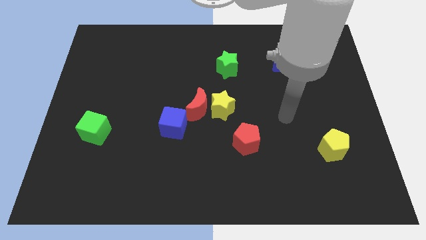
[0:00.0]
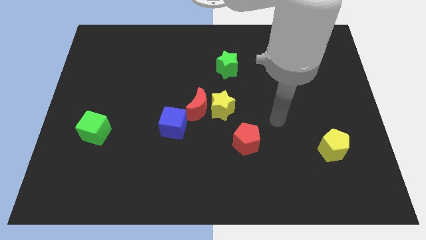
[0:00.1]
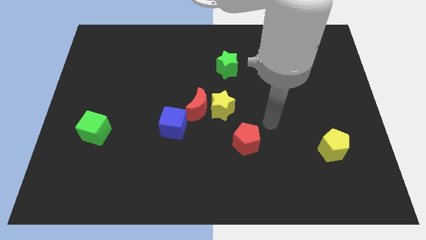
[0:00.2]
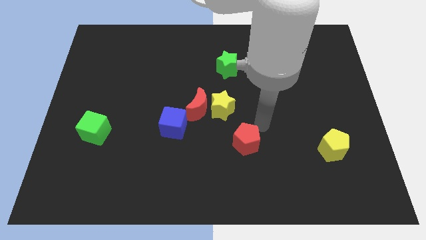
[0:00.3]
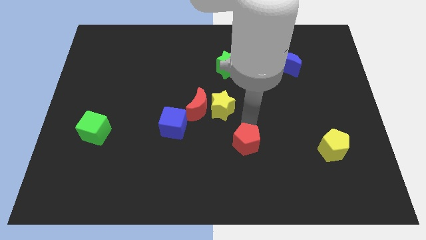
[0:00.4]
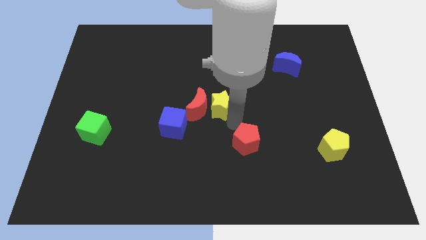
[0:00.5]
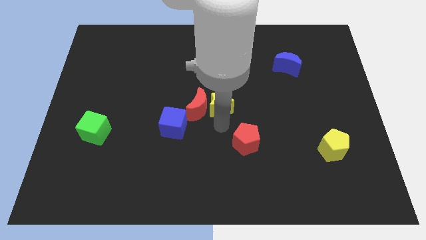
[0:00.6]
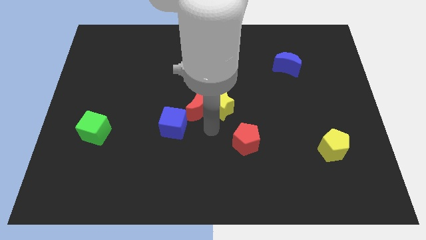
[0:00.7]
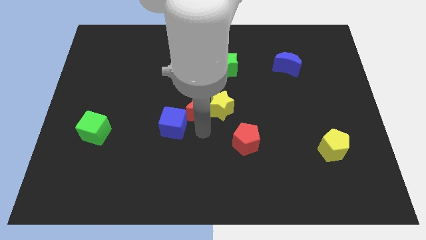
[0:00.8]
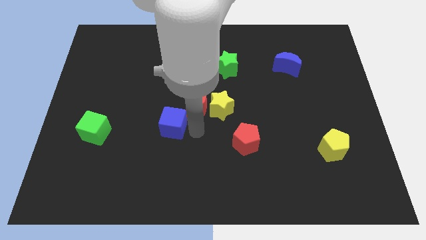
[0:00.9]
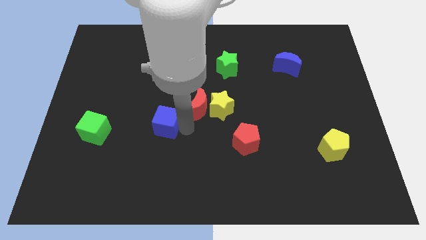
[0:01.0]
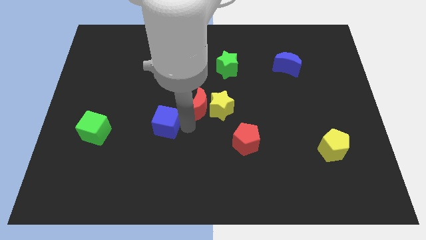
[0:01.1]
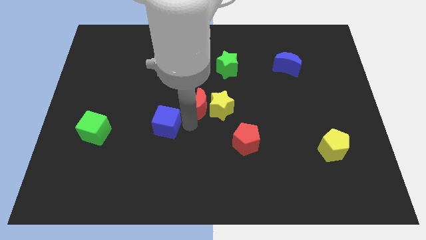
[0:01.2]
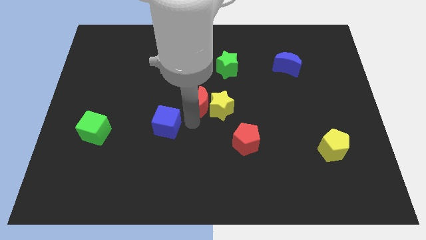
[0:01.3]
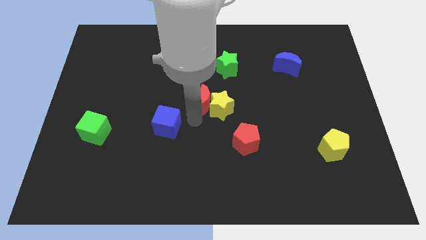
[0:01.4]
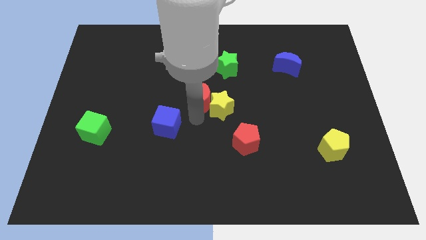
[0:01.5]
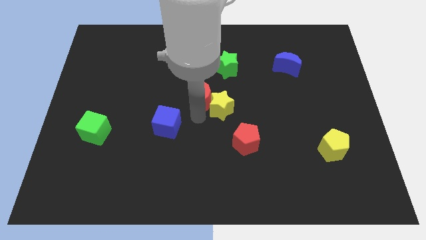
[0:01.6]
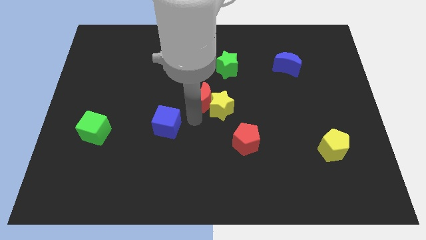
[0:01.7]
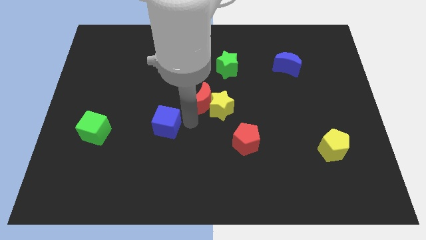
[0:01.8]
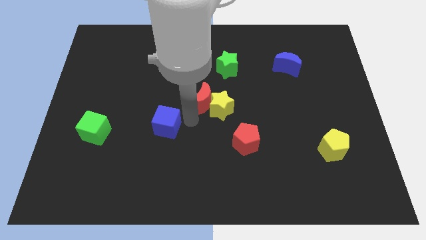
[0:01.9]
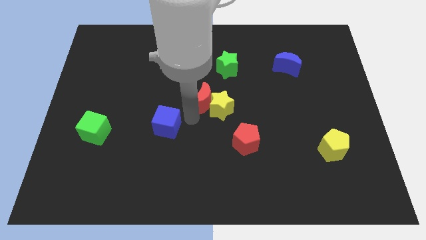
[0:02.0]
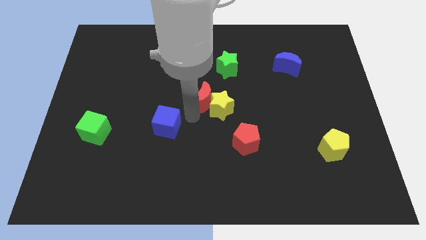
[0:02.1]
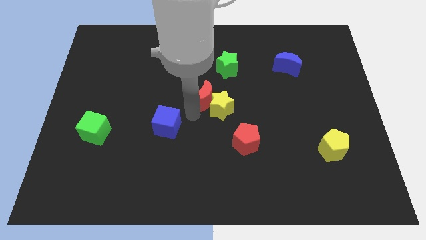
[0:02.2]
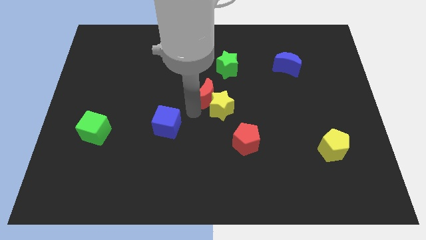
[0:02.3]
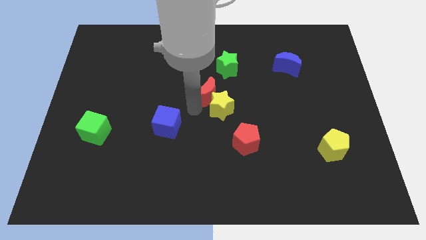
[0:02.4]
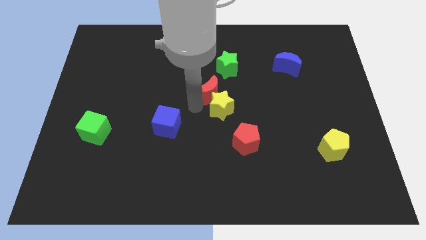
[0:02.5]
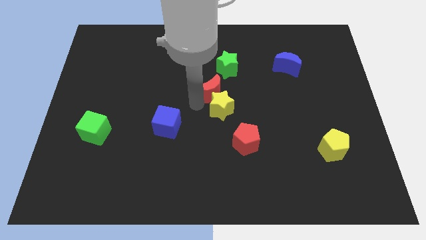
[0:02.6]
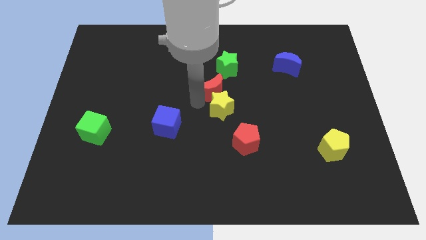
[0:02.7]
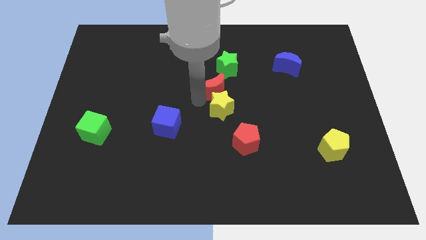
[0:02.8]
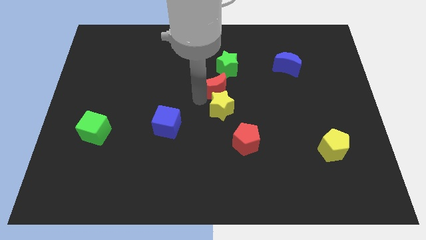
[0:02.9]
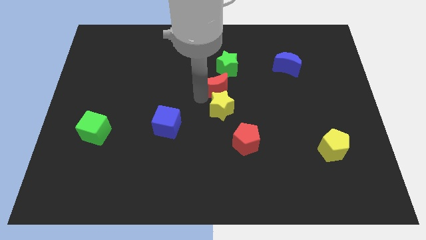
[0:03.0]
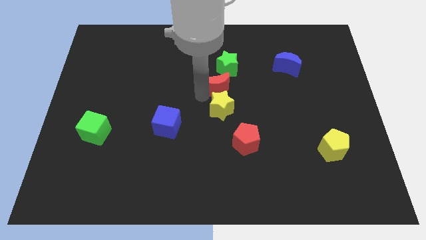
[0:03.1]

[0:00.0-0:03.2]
separate the red moon from the yellow star and blue cube

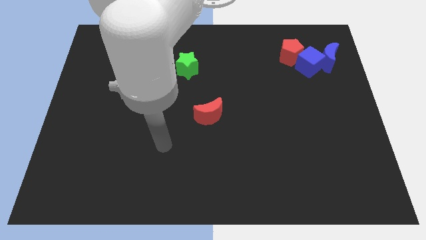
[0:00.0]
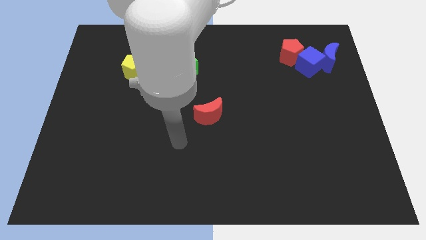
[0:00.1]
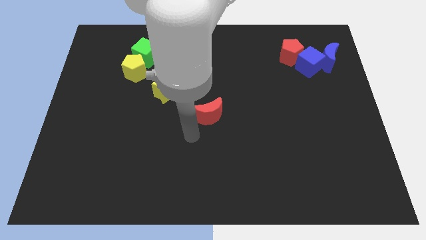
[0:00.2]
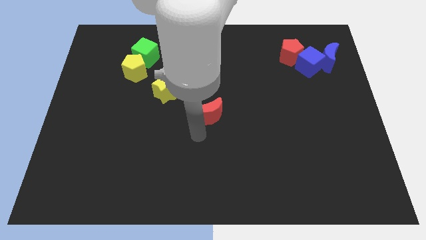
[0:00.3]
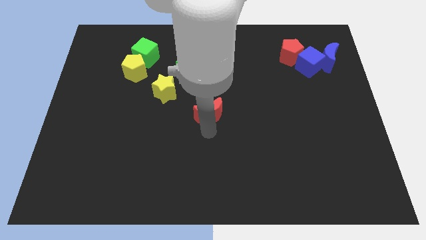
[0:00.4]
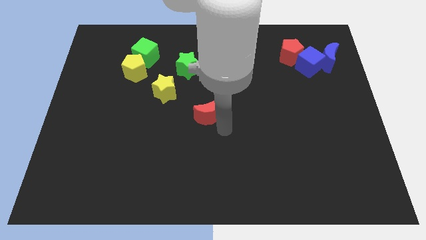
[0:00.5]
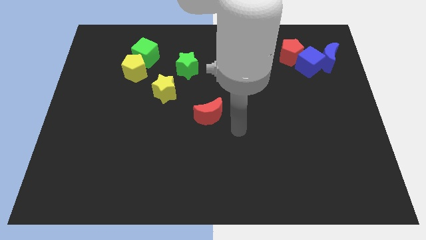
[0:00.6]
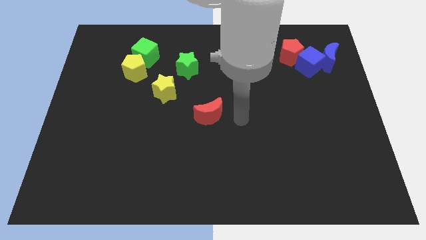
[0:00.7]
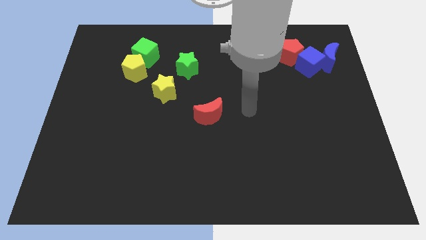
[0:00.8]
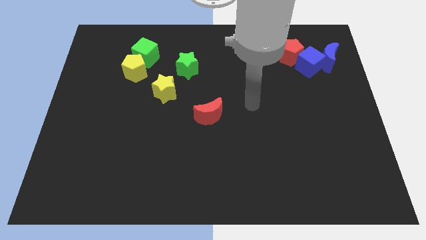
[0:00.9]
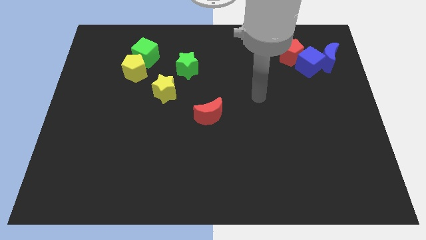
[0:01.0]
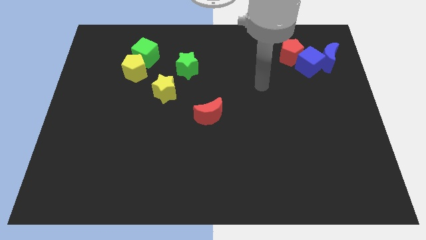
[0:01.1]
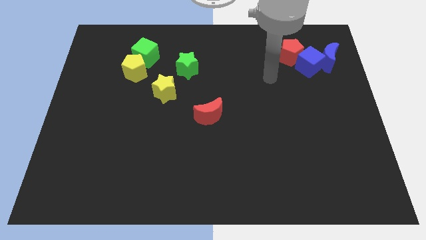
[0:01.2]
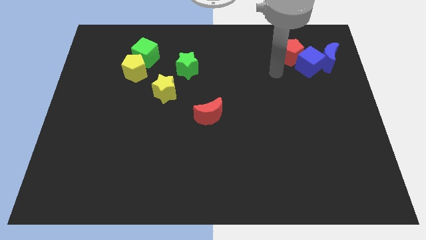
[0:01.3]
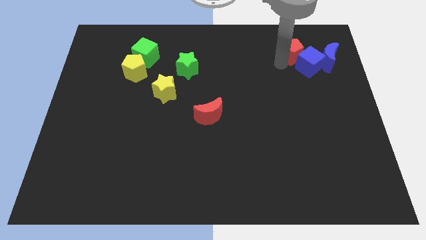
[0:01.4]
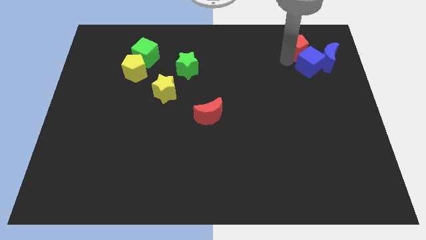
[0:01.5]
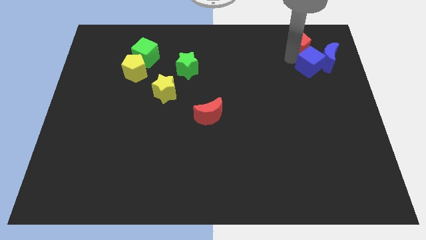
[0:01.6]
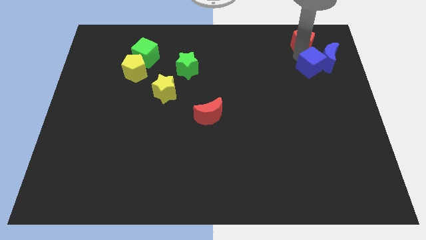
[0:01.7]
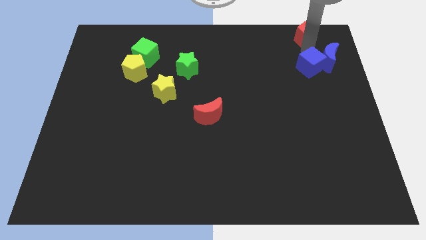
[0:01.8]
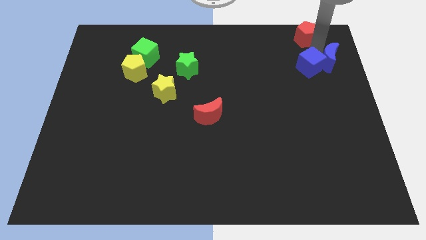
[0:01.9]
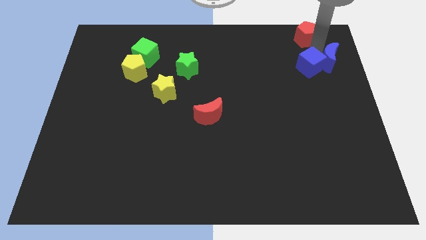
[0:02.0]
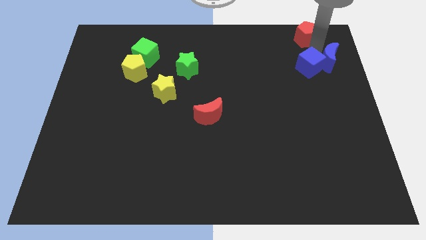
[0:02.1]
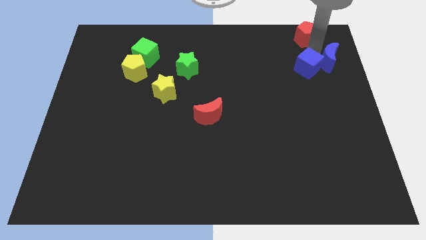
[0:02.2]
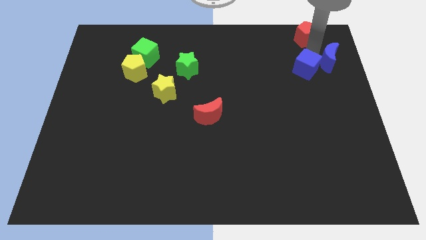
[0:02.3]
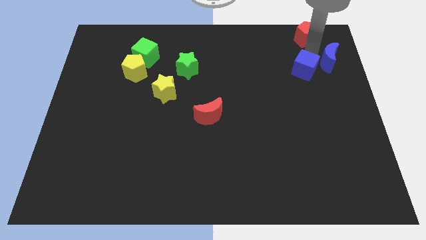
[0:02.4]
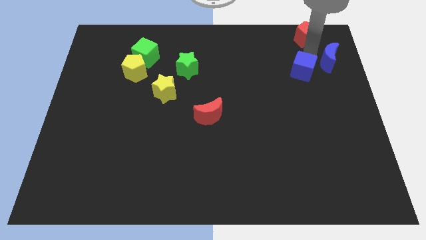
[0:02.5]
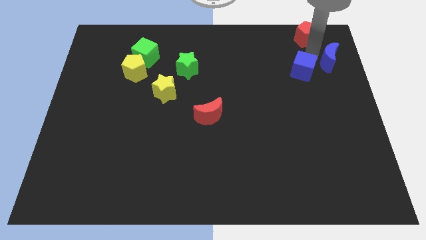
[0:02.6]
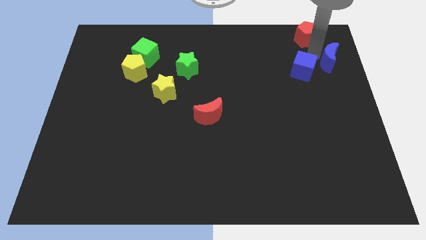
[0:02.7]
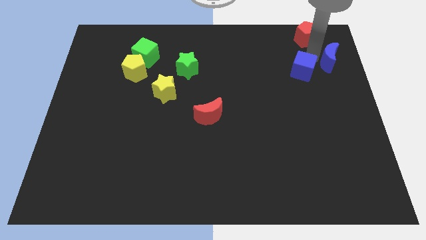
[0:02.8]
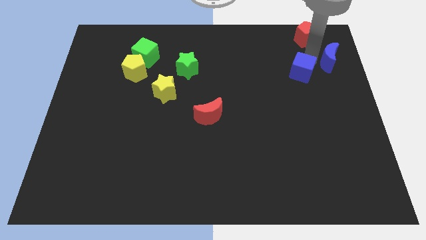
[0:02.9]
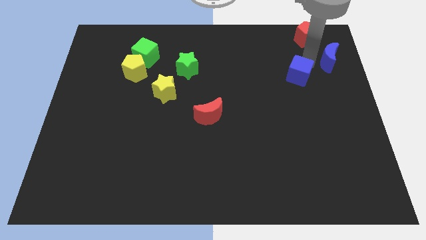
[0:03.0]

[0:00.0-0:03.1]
pull the blue cube apart from the blue moon and red pentagon

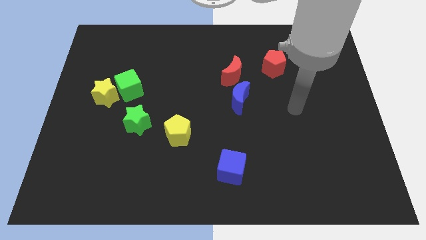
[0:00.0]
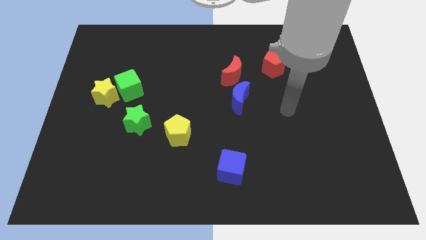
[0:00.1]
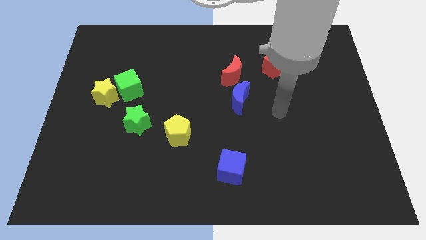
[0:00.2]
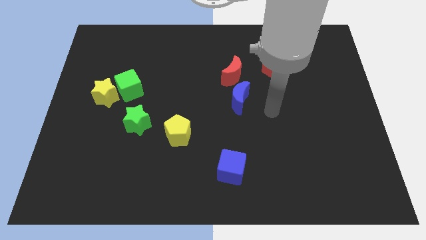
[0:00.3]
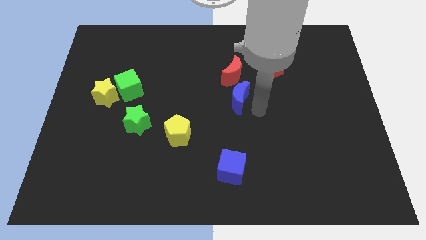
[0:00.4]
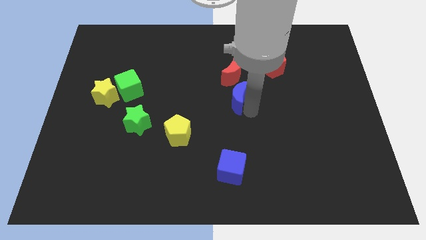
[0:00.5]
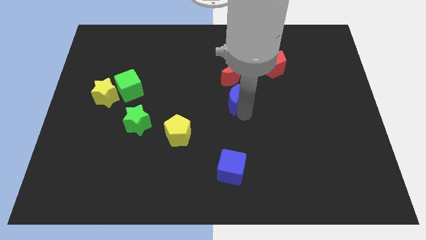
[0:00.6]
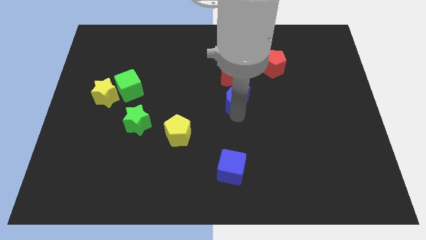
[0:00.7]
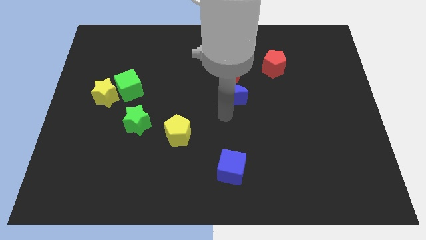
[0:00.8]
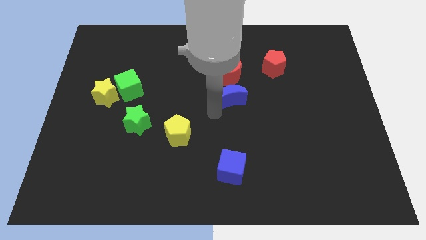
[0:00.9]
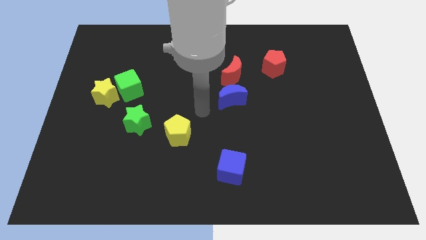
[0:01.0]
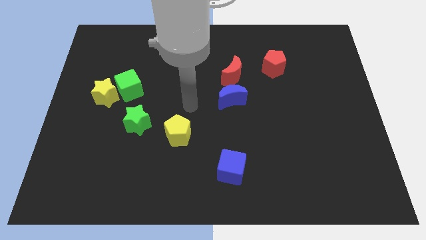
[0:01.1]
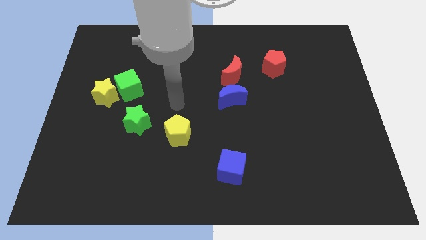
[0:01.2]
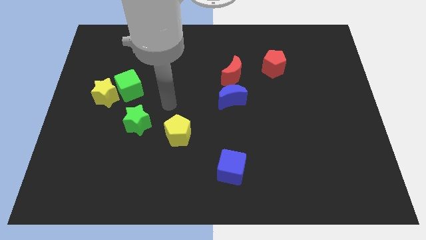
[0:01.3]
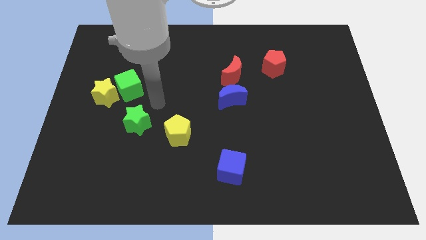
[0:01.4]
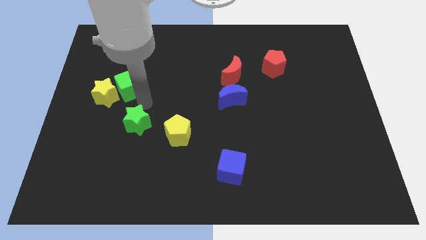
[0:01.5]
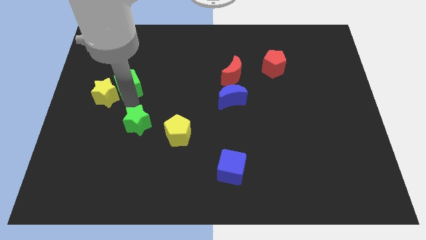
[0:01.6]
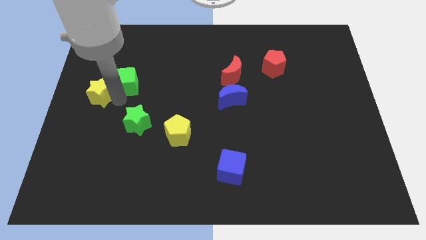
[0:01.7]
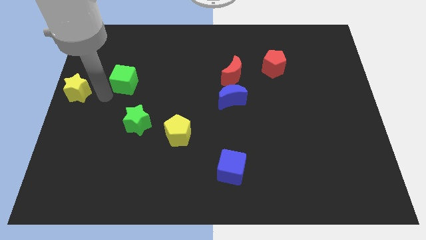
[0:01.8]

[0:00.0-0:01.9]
separate the green cube from the yellow star

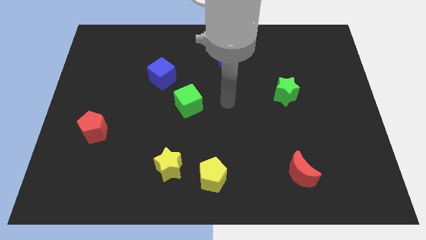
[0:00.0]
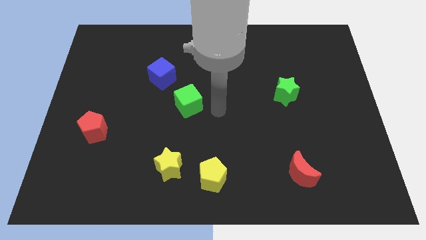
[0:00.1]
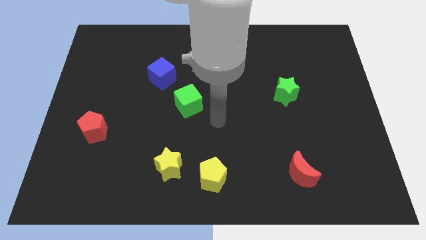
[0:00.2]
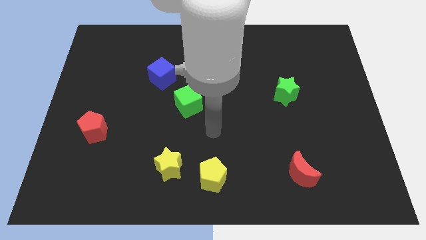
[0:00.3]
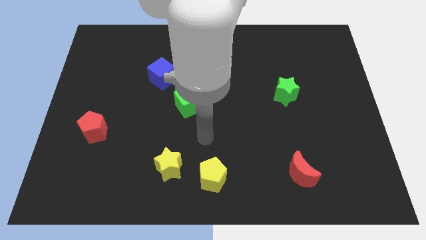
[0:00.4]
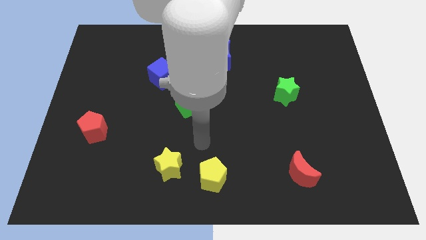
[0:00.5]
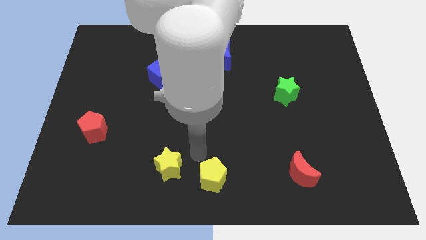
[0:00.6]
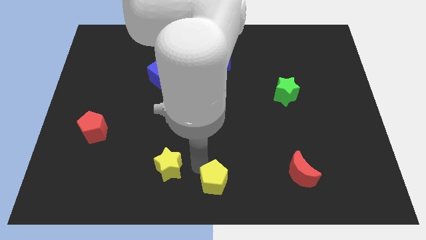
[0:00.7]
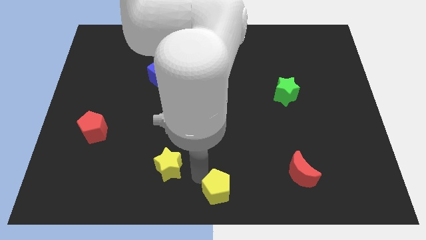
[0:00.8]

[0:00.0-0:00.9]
move the yellow star away from the yellow pentagon

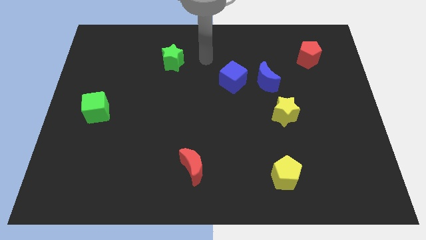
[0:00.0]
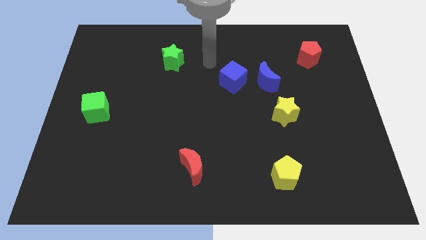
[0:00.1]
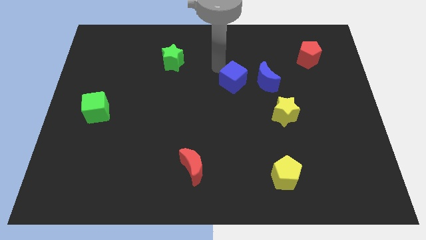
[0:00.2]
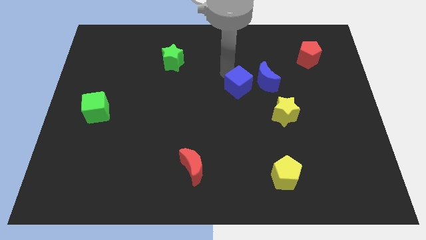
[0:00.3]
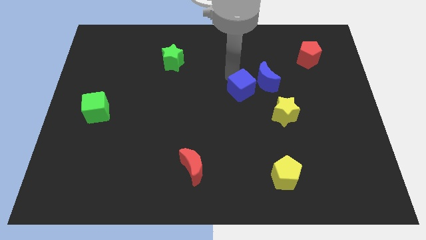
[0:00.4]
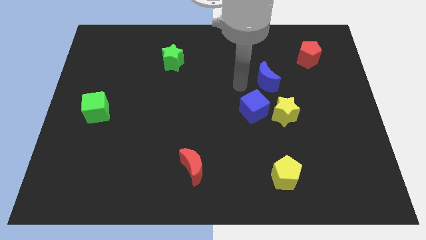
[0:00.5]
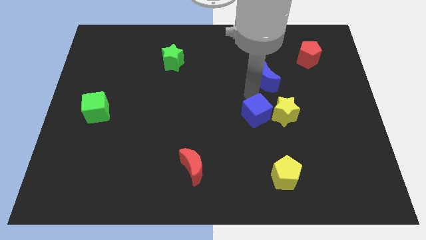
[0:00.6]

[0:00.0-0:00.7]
pull the blue moon apart from the blue cube
